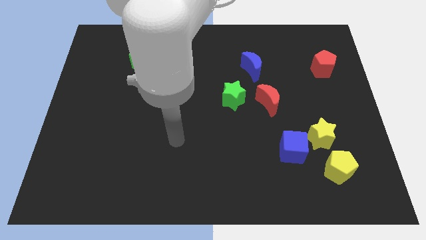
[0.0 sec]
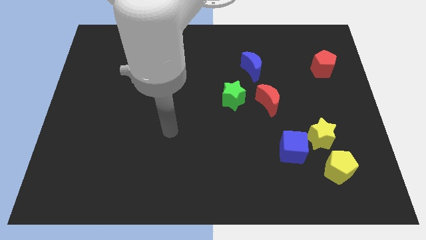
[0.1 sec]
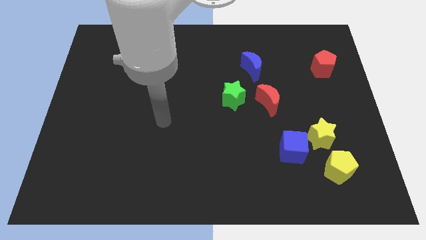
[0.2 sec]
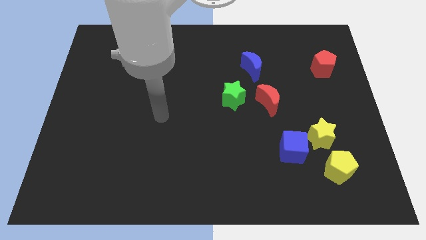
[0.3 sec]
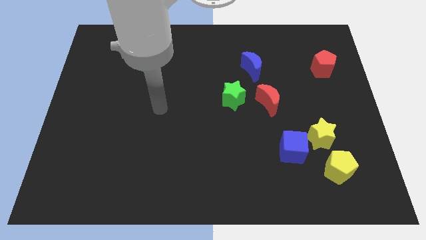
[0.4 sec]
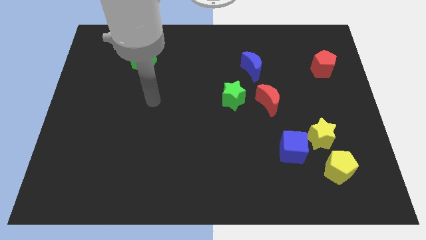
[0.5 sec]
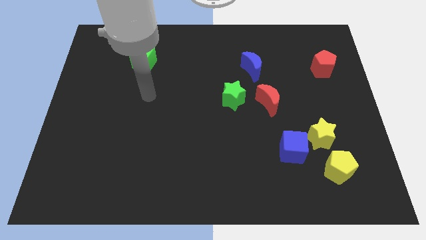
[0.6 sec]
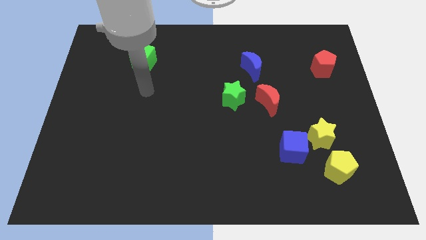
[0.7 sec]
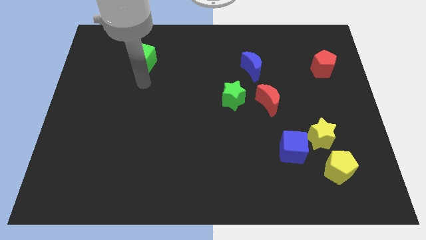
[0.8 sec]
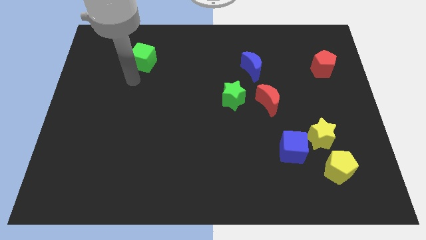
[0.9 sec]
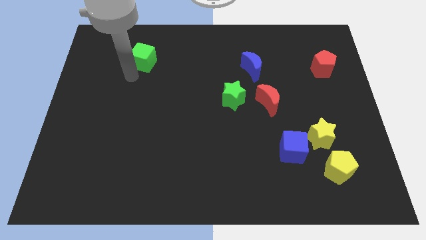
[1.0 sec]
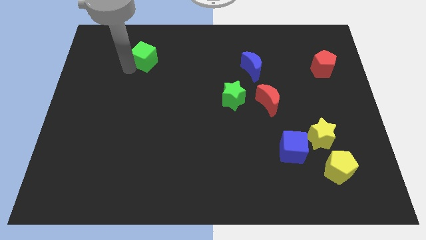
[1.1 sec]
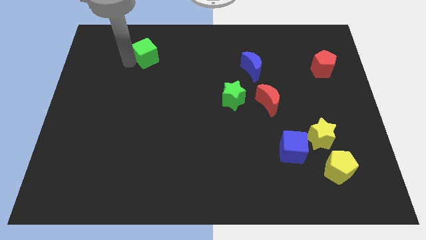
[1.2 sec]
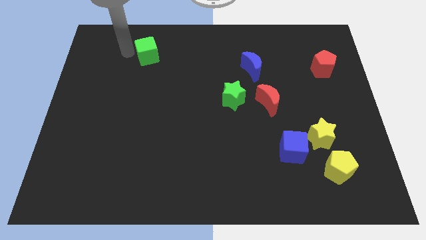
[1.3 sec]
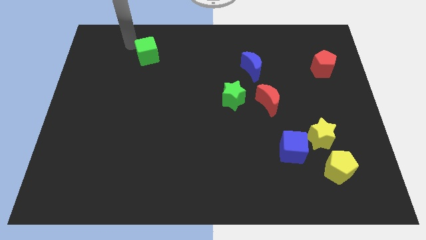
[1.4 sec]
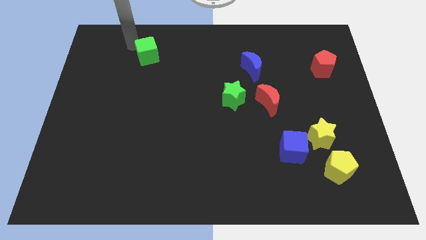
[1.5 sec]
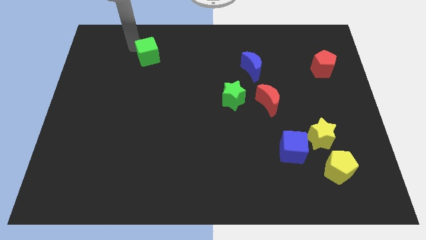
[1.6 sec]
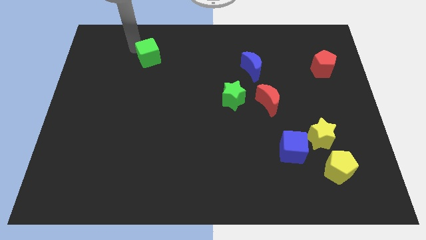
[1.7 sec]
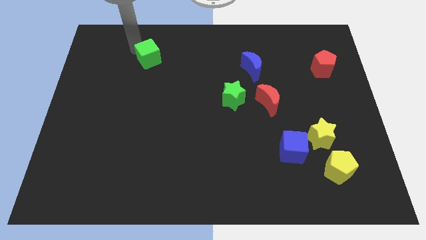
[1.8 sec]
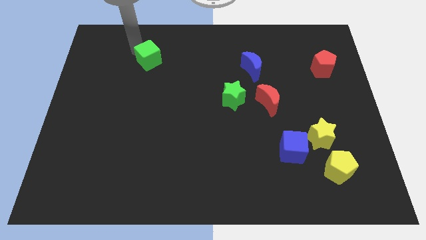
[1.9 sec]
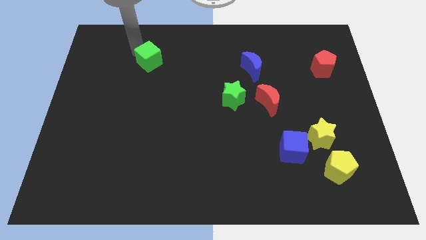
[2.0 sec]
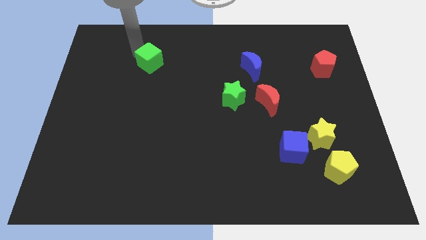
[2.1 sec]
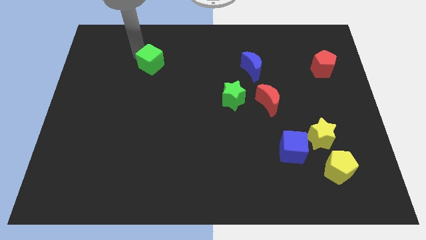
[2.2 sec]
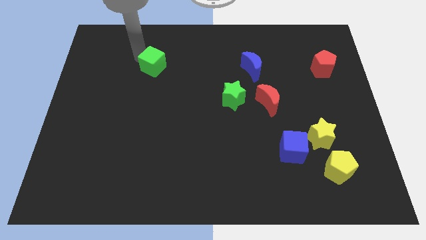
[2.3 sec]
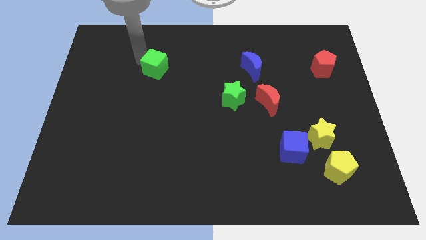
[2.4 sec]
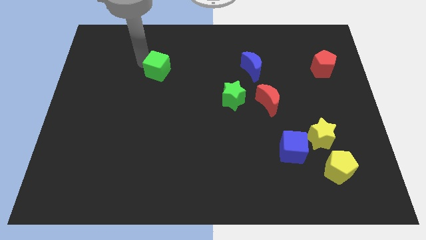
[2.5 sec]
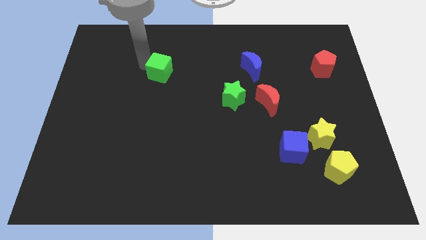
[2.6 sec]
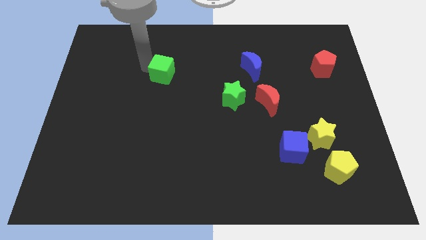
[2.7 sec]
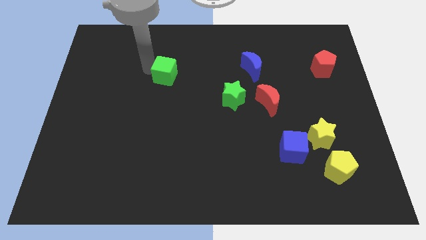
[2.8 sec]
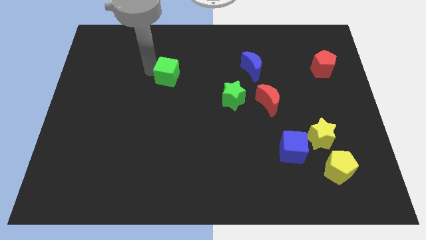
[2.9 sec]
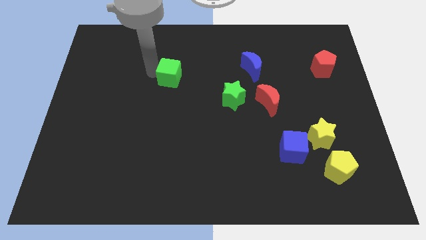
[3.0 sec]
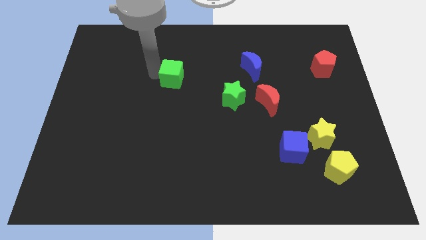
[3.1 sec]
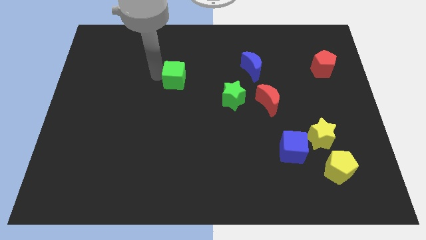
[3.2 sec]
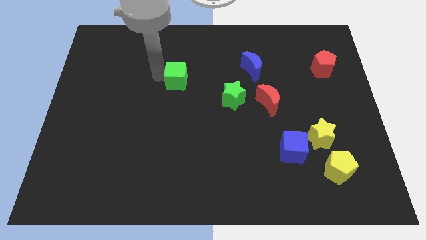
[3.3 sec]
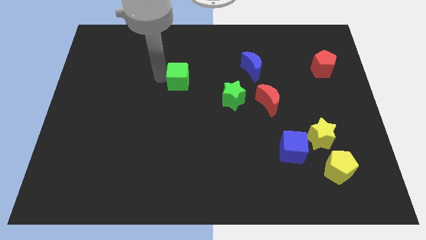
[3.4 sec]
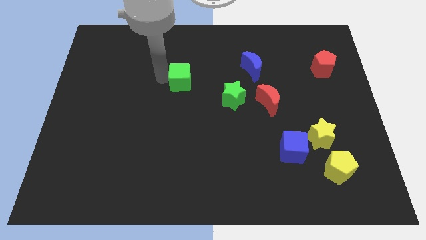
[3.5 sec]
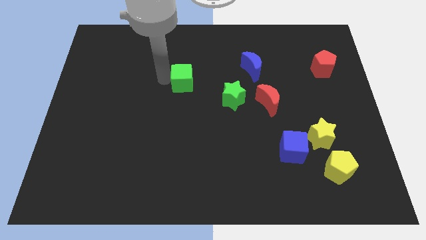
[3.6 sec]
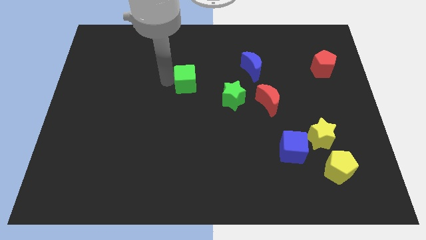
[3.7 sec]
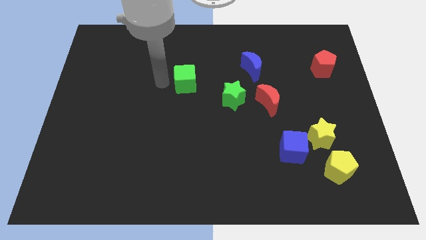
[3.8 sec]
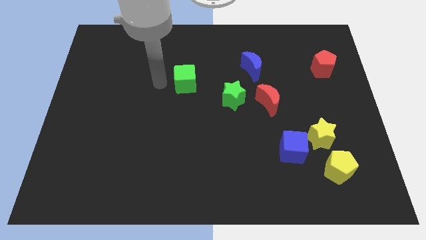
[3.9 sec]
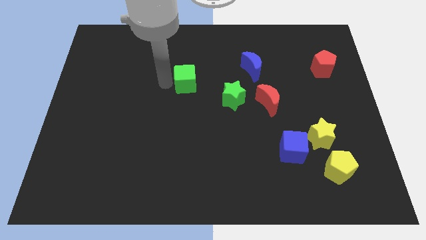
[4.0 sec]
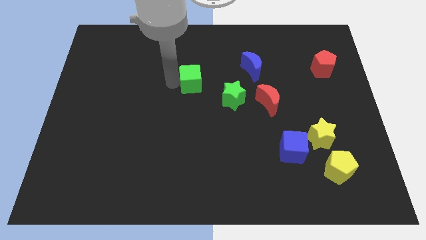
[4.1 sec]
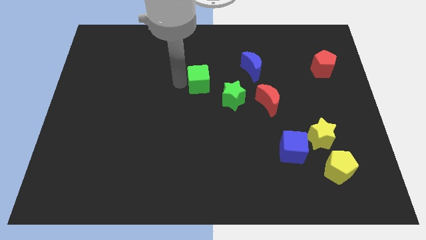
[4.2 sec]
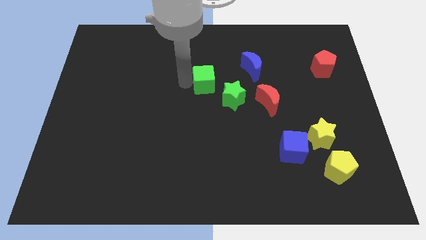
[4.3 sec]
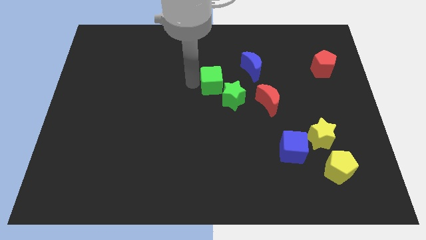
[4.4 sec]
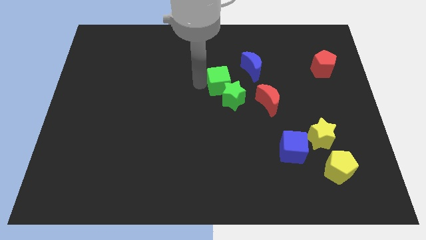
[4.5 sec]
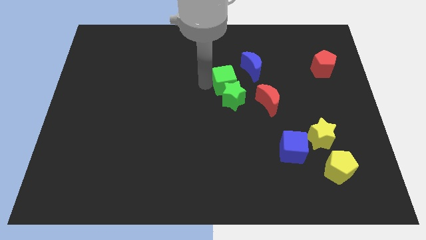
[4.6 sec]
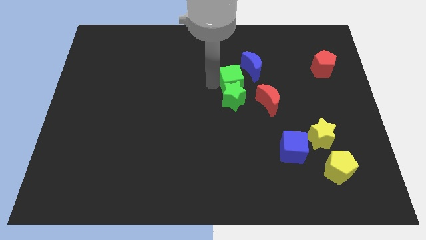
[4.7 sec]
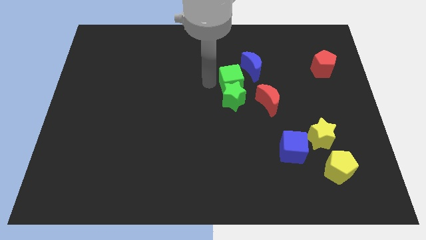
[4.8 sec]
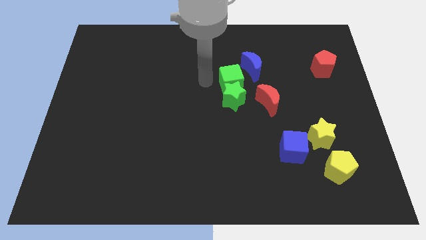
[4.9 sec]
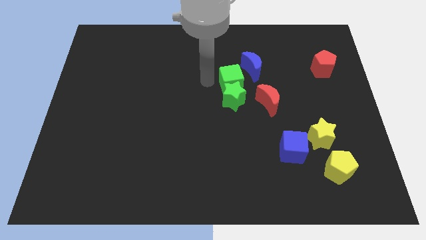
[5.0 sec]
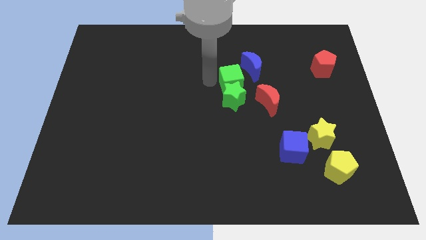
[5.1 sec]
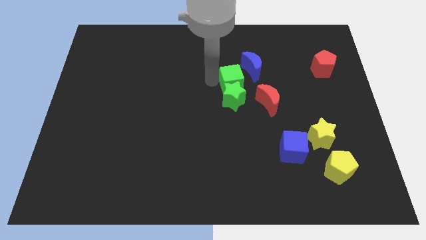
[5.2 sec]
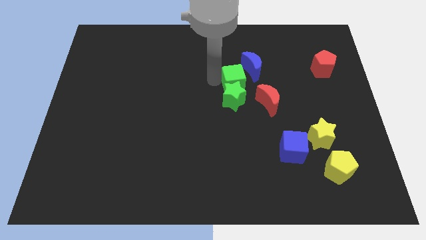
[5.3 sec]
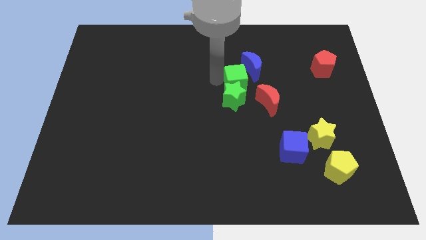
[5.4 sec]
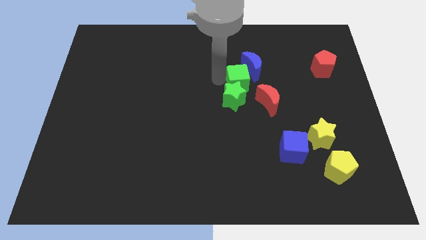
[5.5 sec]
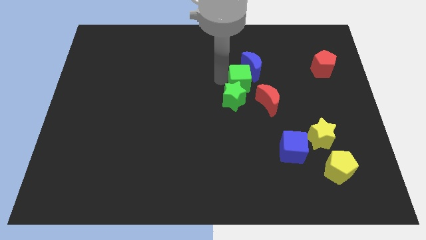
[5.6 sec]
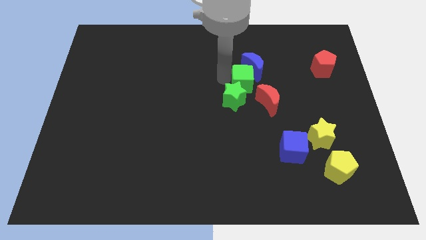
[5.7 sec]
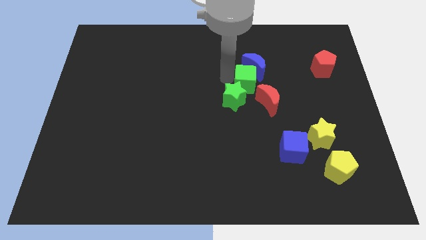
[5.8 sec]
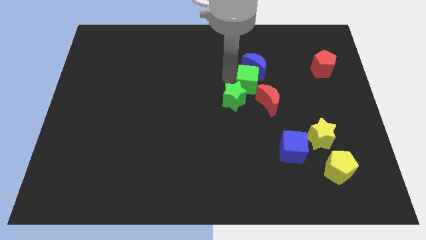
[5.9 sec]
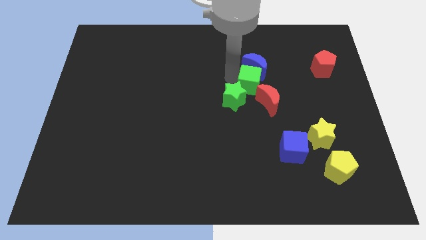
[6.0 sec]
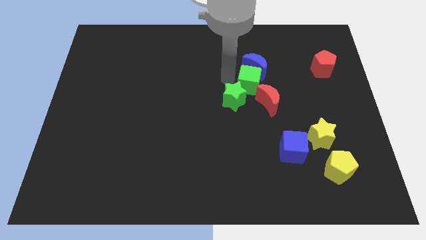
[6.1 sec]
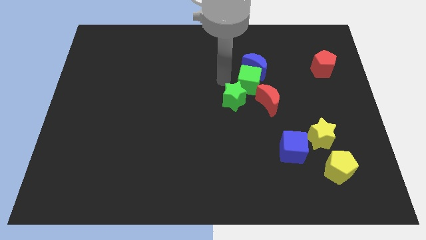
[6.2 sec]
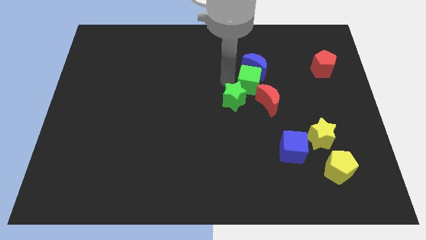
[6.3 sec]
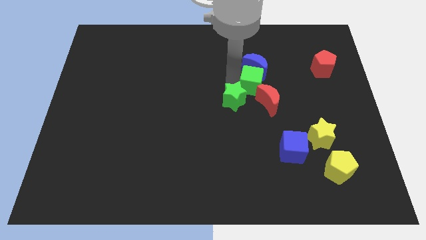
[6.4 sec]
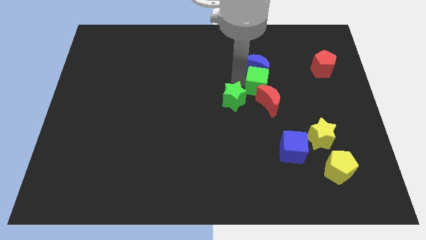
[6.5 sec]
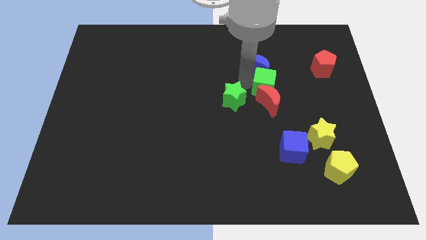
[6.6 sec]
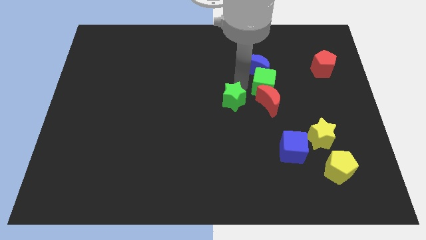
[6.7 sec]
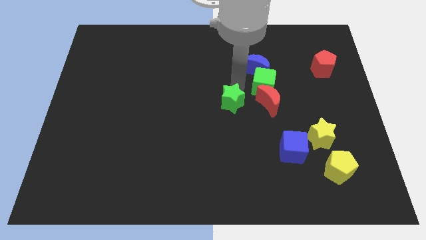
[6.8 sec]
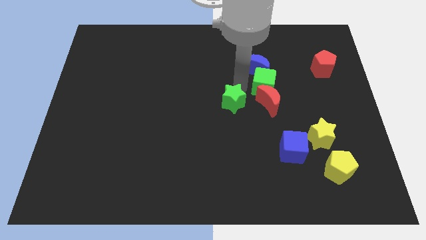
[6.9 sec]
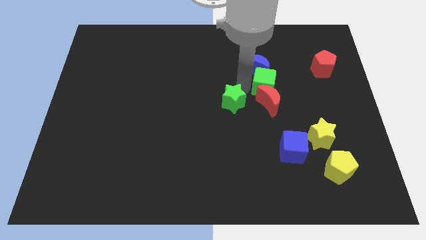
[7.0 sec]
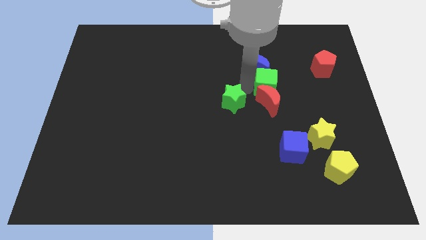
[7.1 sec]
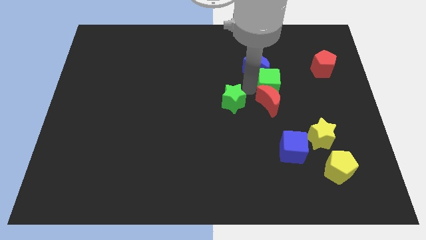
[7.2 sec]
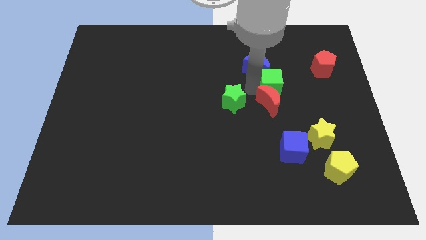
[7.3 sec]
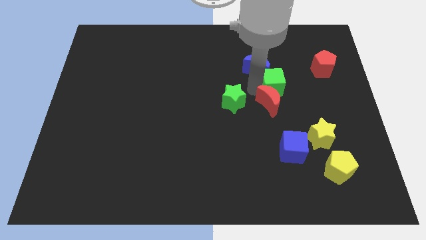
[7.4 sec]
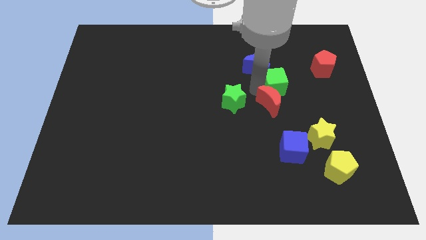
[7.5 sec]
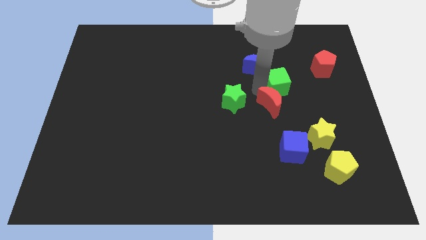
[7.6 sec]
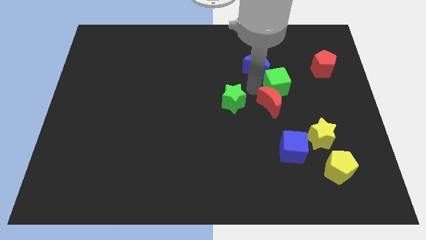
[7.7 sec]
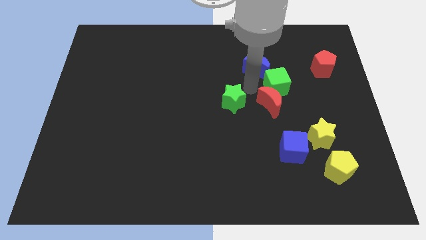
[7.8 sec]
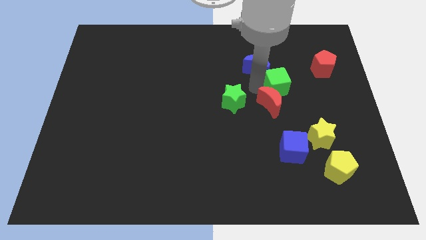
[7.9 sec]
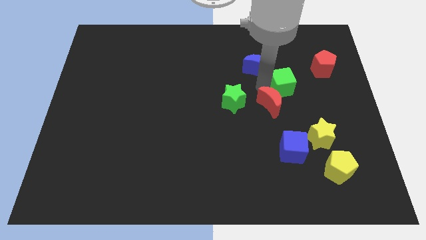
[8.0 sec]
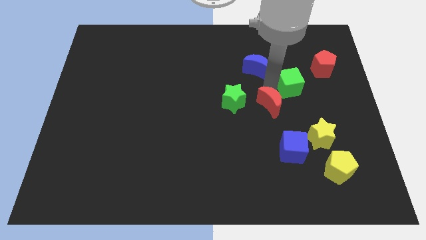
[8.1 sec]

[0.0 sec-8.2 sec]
put the green cube diagonally down and to the left of the red pentagon
